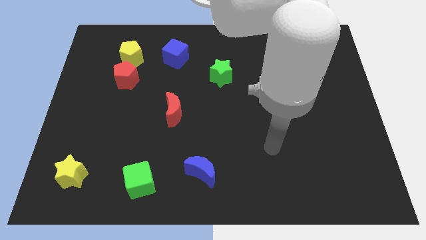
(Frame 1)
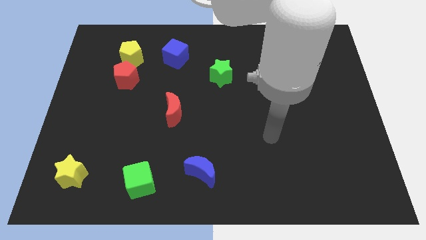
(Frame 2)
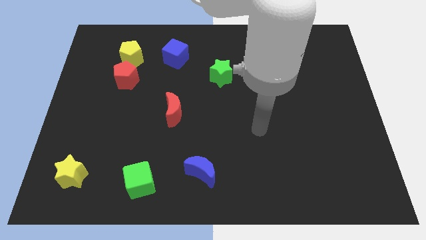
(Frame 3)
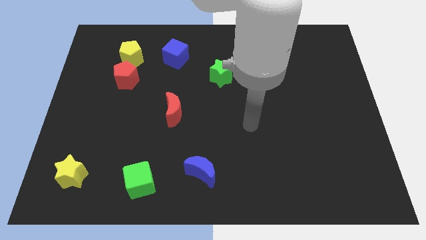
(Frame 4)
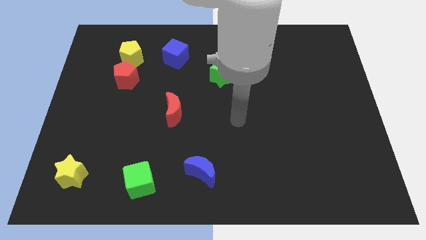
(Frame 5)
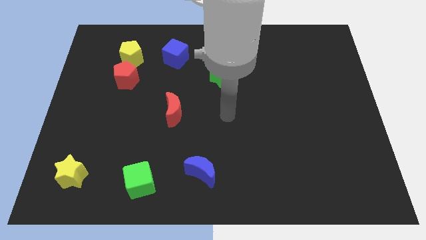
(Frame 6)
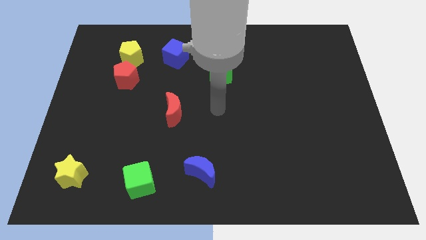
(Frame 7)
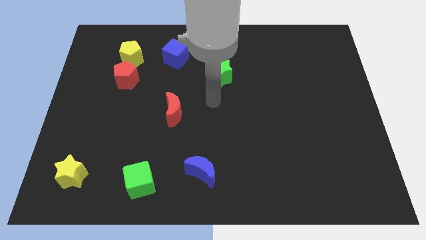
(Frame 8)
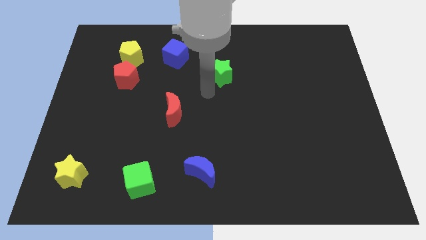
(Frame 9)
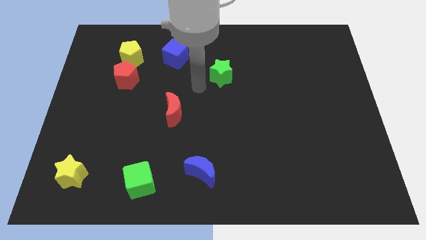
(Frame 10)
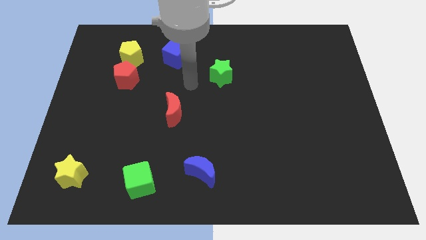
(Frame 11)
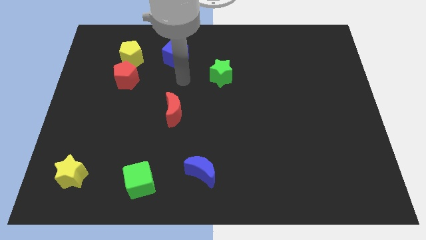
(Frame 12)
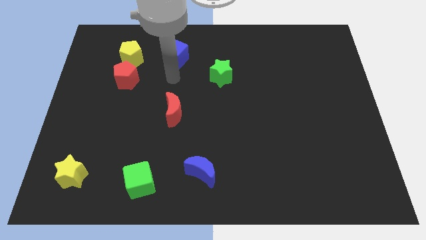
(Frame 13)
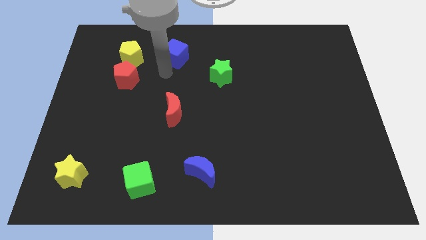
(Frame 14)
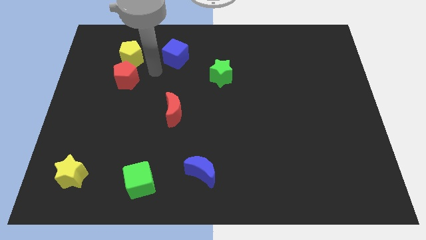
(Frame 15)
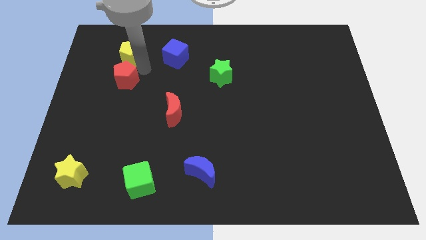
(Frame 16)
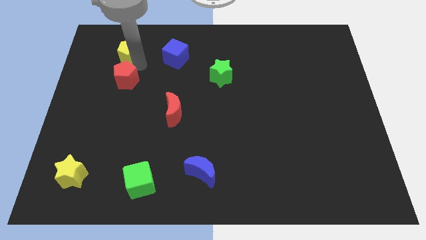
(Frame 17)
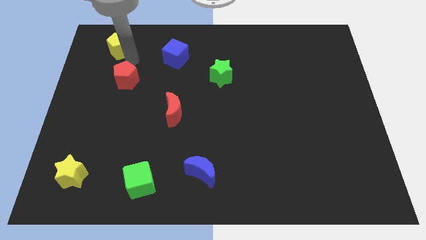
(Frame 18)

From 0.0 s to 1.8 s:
pull the red pentagon apart from the yellow pentagon

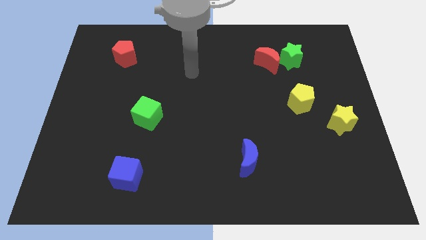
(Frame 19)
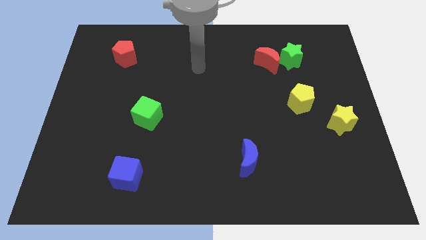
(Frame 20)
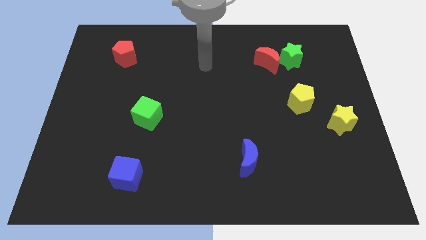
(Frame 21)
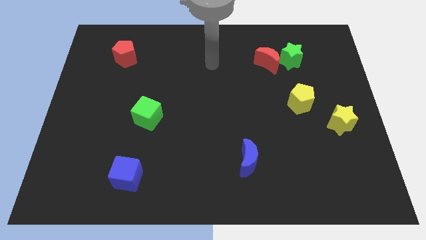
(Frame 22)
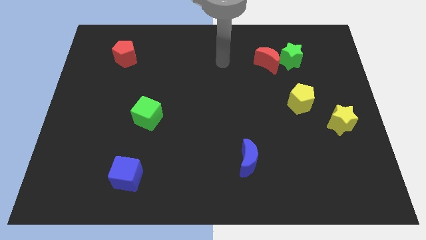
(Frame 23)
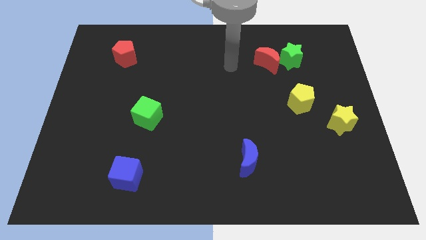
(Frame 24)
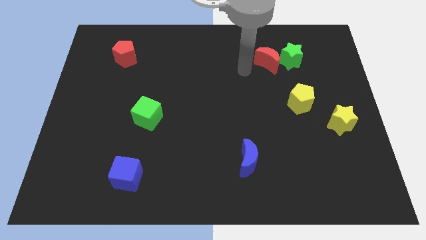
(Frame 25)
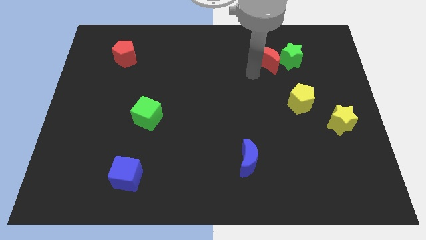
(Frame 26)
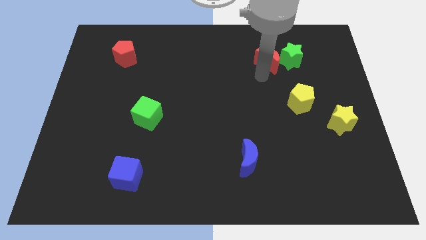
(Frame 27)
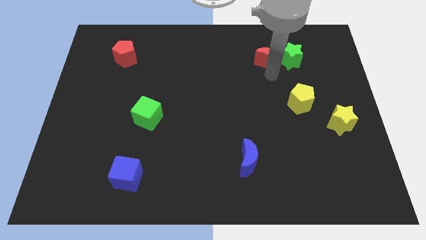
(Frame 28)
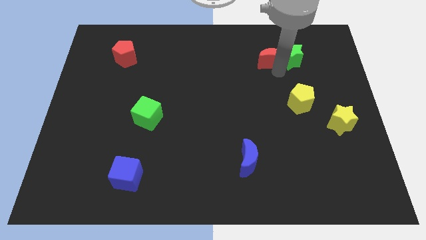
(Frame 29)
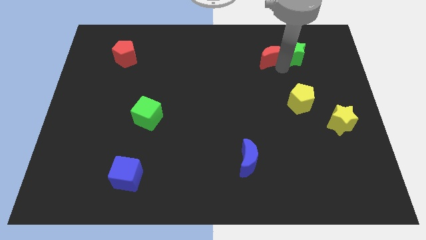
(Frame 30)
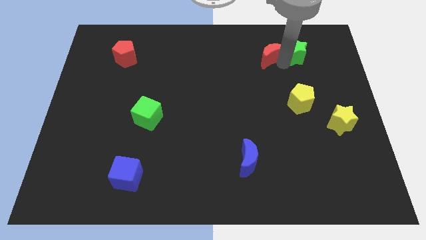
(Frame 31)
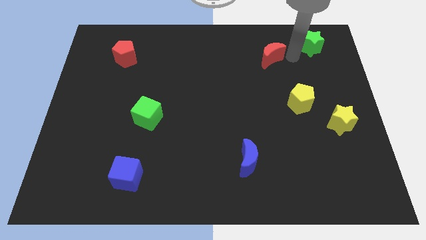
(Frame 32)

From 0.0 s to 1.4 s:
separate the red moon from the green star

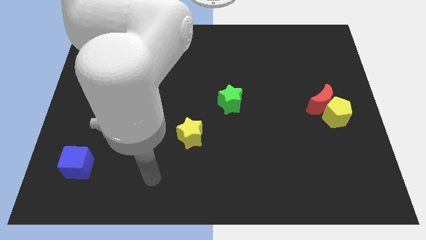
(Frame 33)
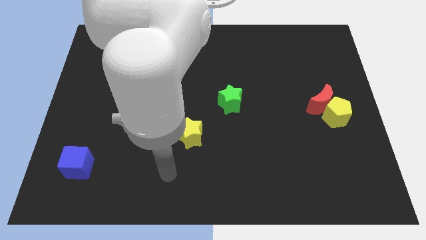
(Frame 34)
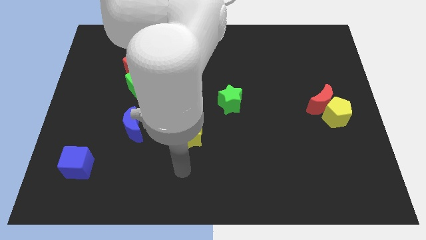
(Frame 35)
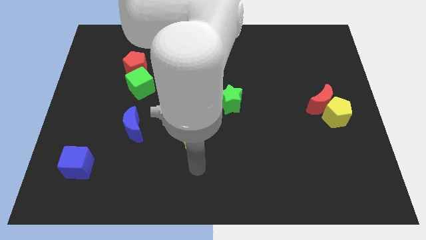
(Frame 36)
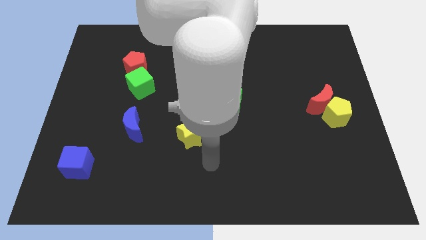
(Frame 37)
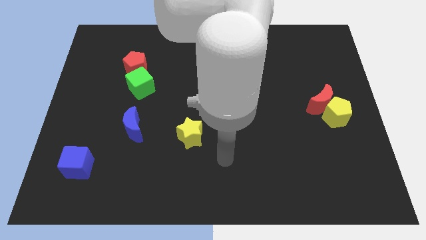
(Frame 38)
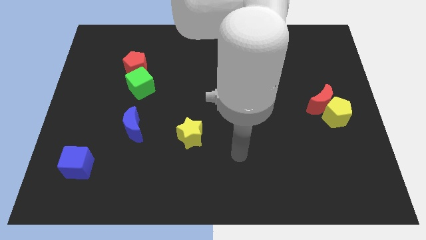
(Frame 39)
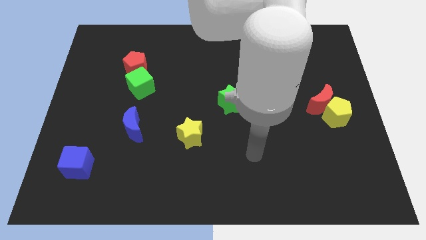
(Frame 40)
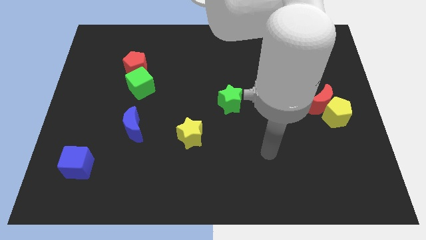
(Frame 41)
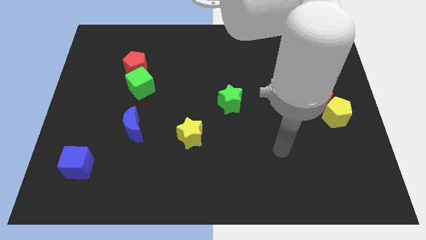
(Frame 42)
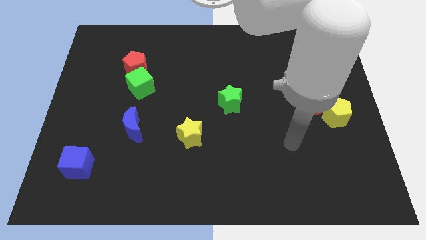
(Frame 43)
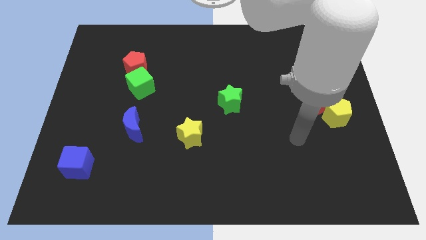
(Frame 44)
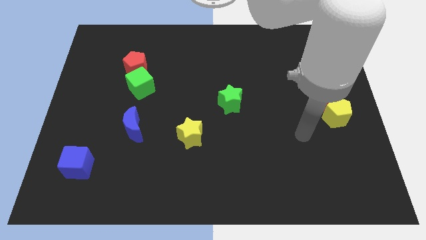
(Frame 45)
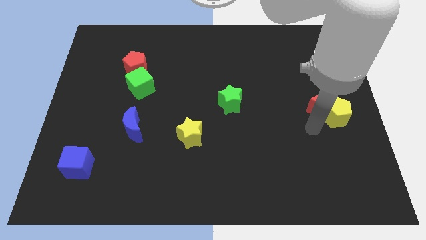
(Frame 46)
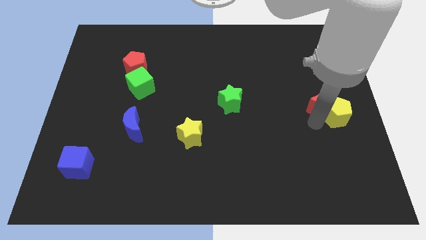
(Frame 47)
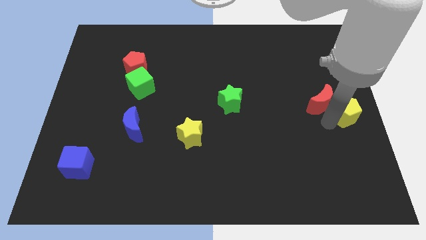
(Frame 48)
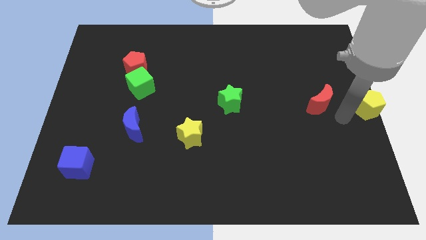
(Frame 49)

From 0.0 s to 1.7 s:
pull the red moon apart from the yellow pentagon

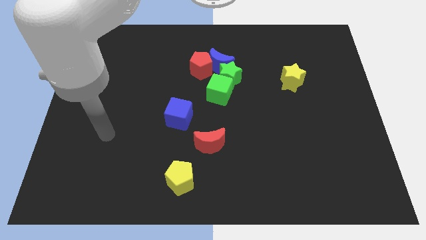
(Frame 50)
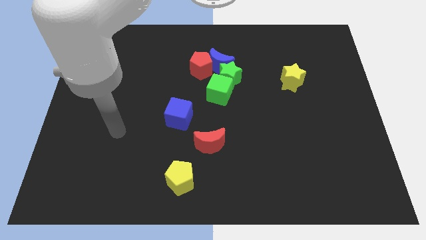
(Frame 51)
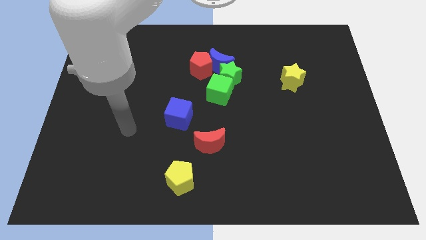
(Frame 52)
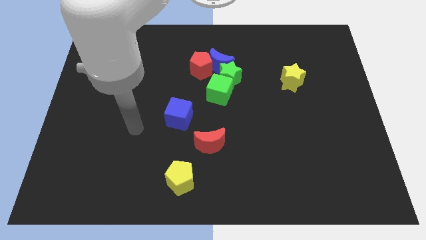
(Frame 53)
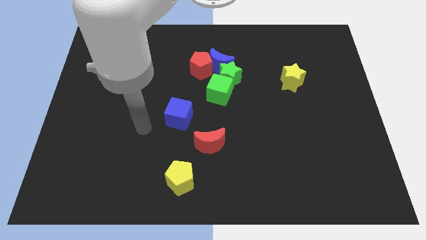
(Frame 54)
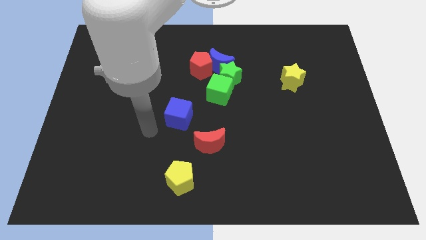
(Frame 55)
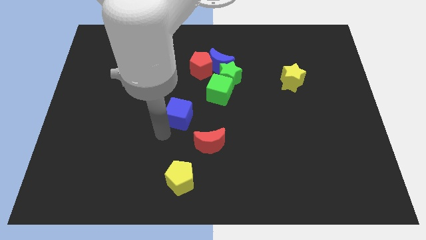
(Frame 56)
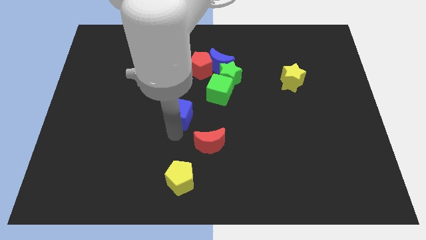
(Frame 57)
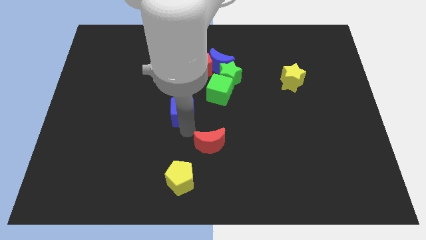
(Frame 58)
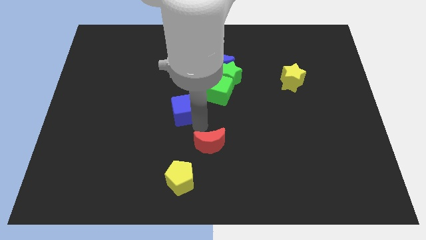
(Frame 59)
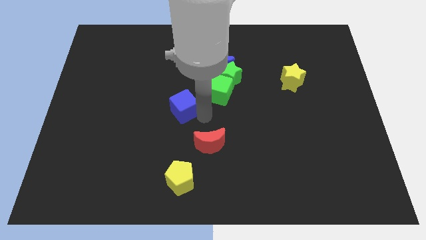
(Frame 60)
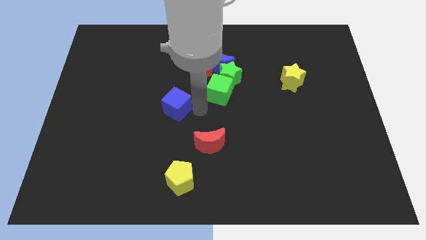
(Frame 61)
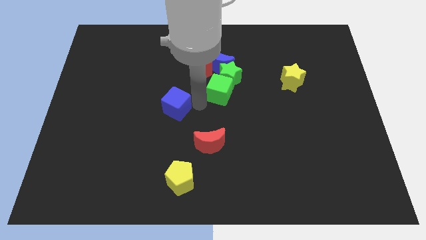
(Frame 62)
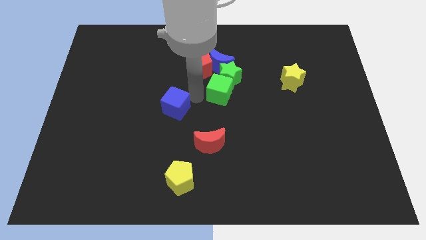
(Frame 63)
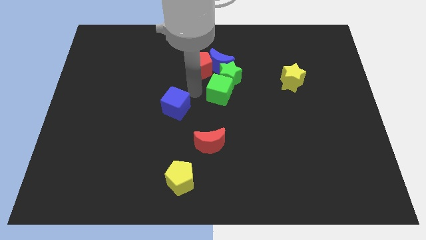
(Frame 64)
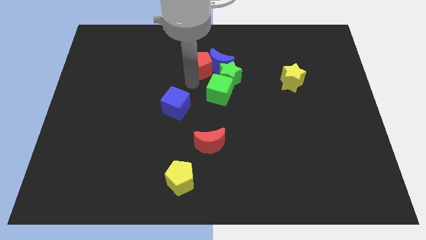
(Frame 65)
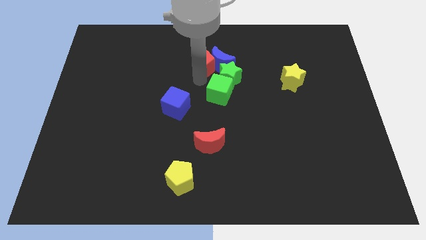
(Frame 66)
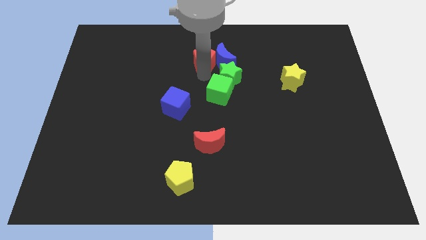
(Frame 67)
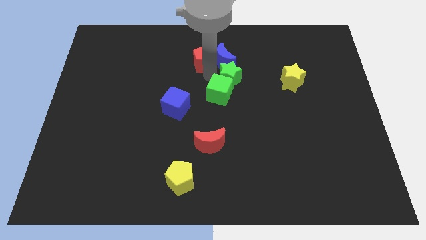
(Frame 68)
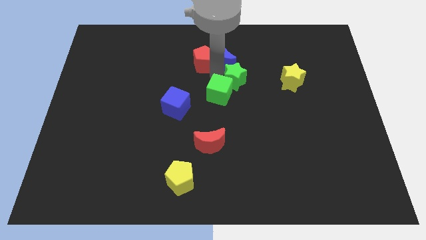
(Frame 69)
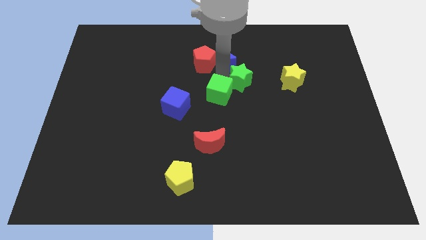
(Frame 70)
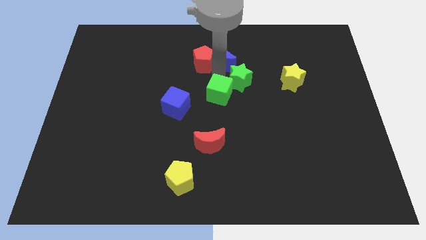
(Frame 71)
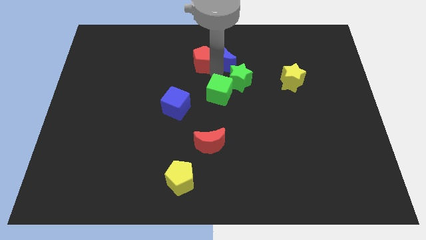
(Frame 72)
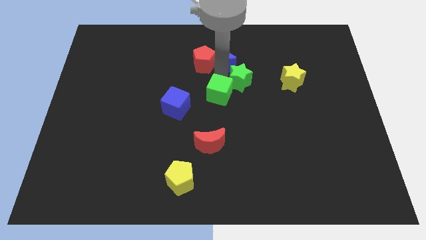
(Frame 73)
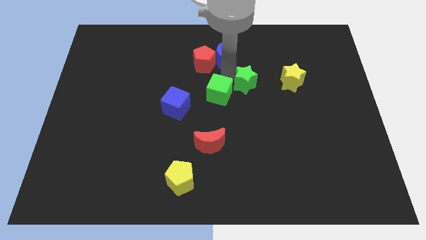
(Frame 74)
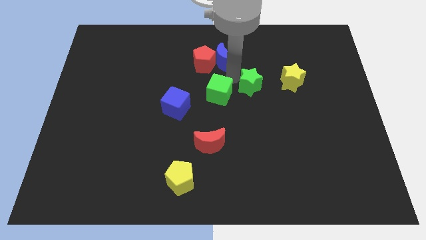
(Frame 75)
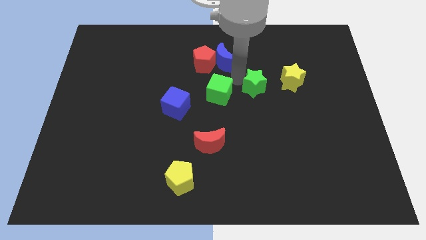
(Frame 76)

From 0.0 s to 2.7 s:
separate the green star from the blue moon, green cube, and red pentagon

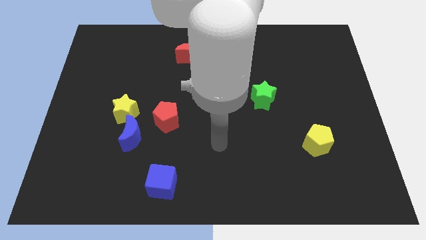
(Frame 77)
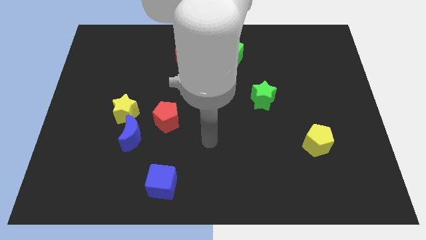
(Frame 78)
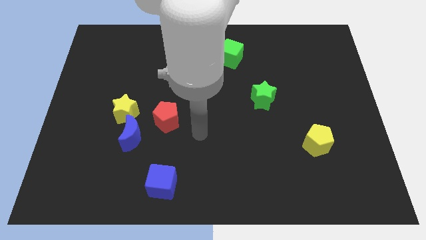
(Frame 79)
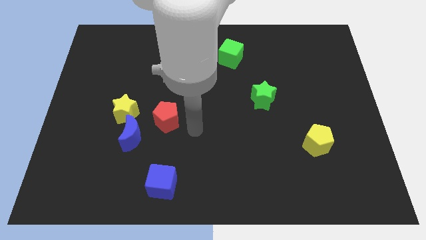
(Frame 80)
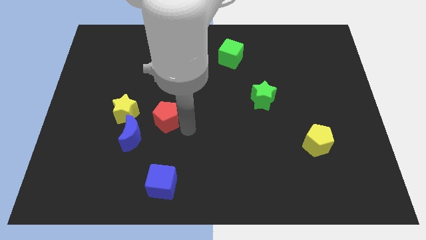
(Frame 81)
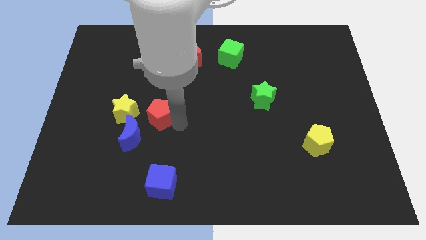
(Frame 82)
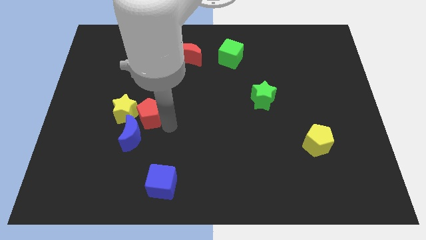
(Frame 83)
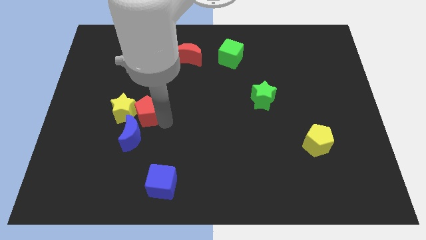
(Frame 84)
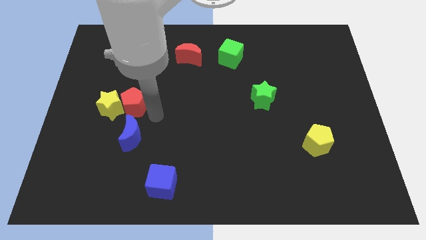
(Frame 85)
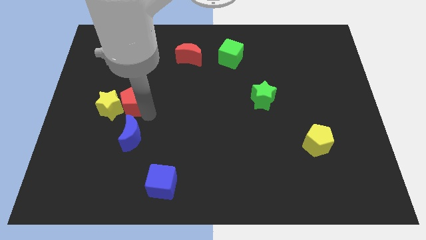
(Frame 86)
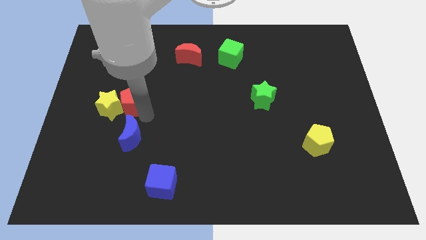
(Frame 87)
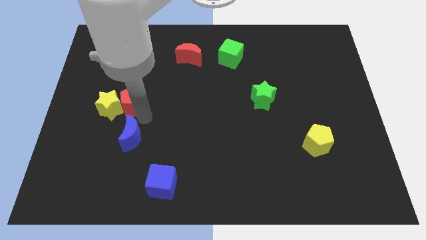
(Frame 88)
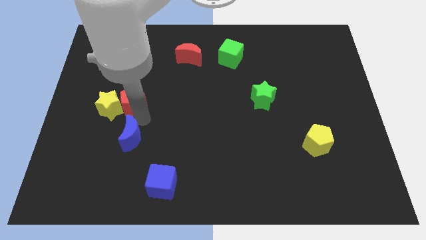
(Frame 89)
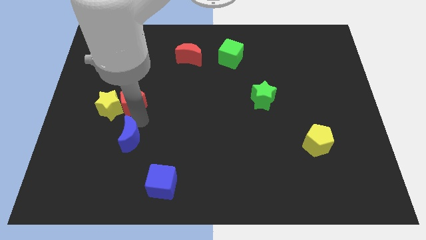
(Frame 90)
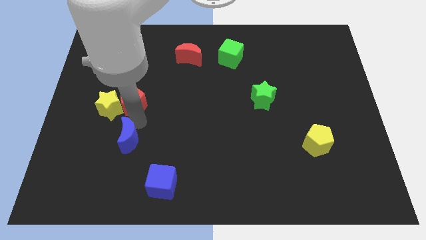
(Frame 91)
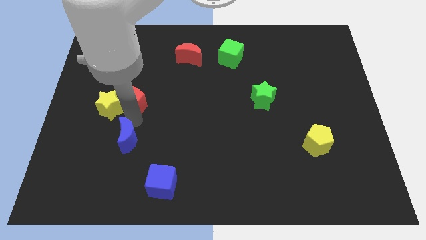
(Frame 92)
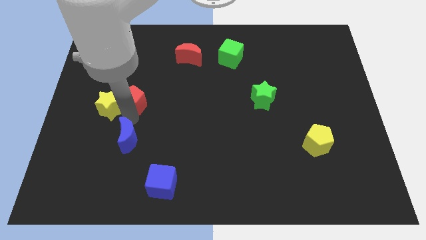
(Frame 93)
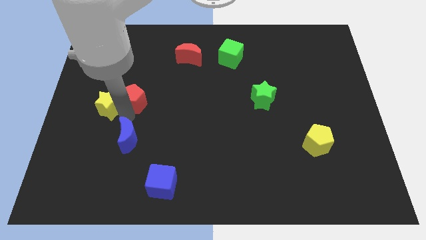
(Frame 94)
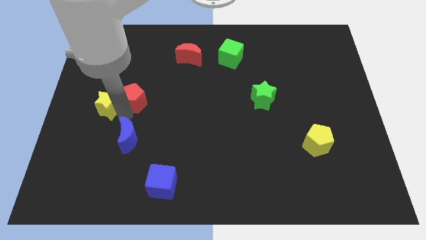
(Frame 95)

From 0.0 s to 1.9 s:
pull the blue moon apart from the yellow star and red pentagon

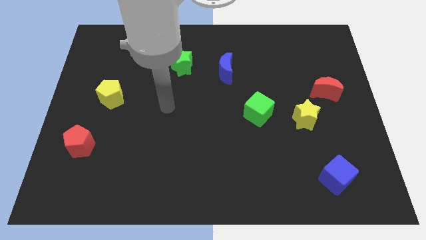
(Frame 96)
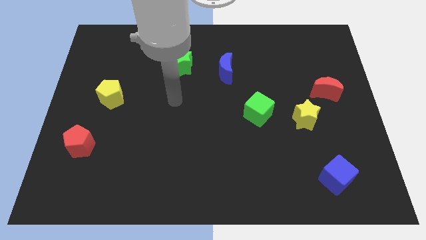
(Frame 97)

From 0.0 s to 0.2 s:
separate the red moon from the yellow star
